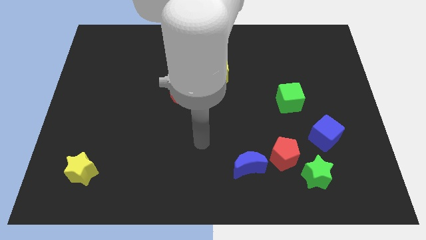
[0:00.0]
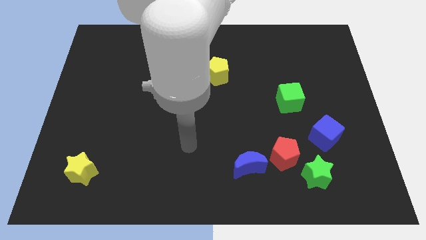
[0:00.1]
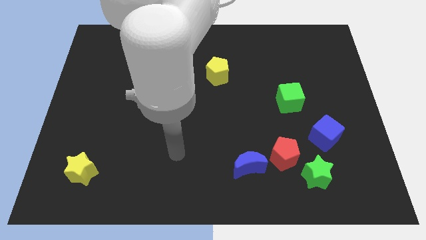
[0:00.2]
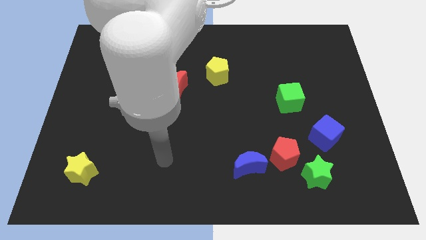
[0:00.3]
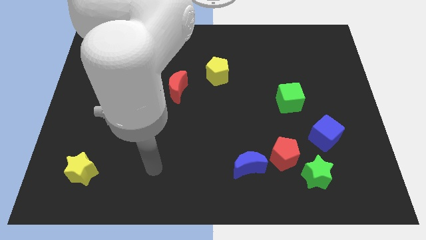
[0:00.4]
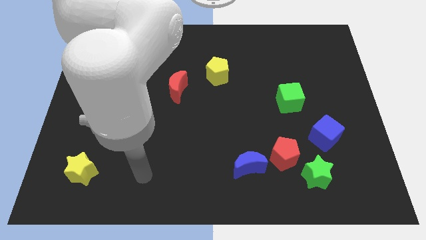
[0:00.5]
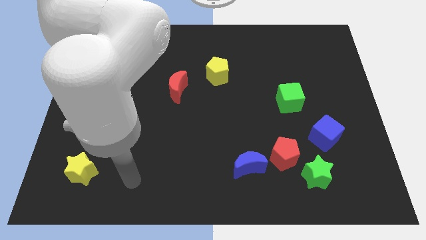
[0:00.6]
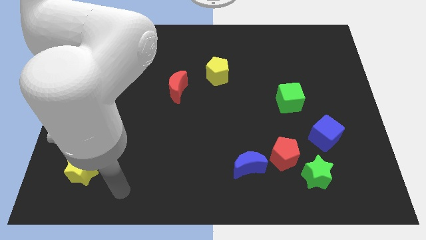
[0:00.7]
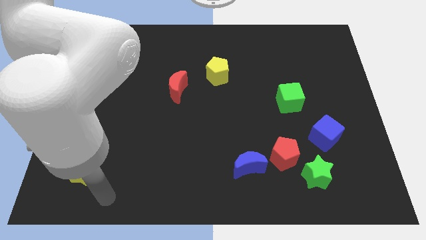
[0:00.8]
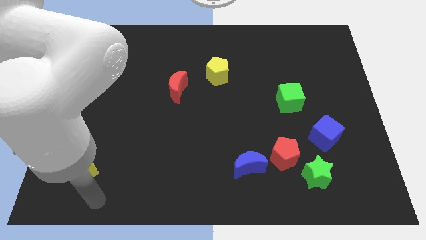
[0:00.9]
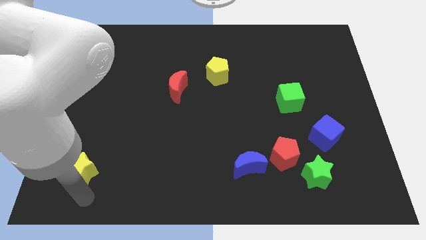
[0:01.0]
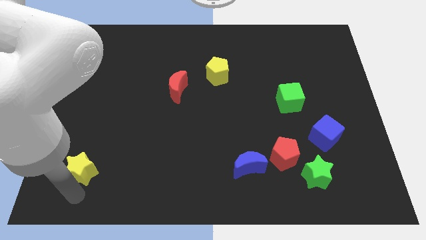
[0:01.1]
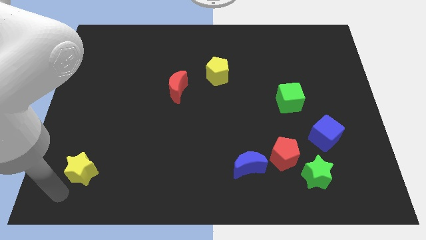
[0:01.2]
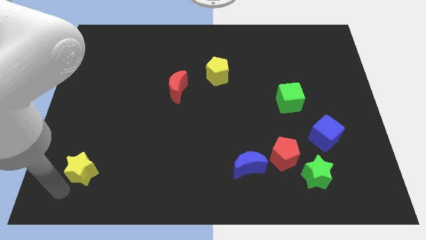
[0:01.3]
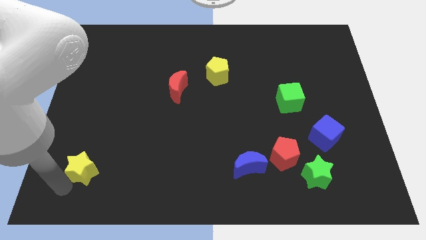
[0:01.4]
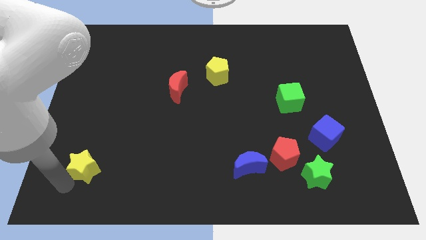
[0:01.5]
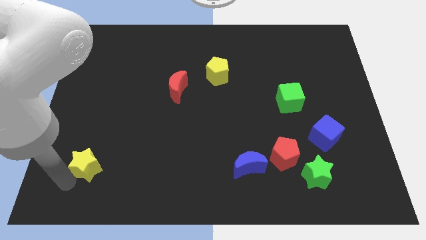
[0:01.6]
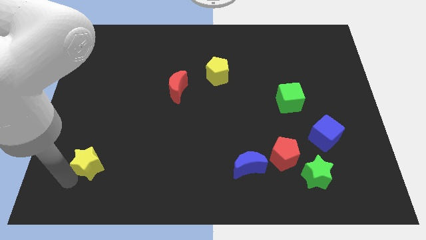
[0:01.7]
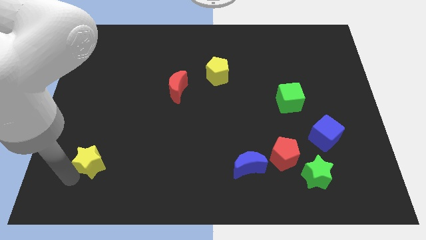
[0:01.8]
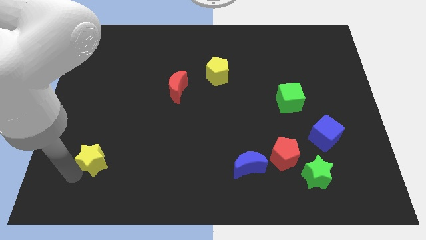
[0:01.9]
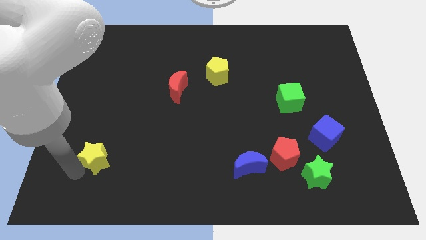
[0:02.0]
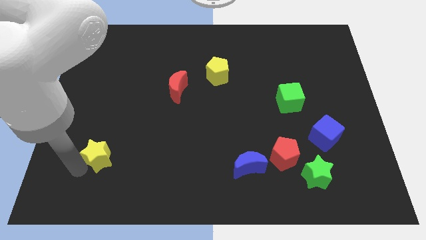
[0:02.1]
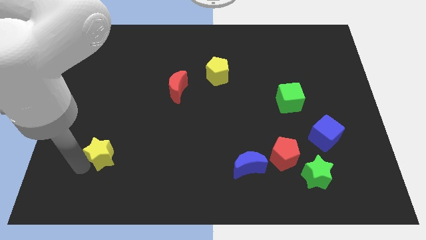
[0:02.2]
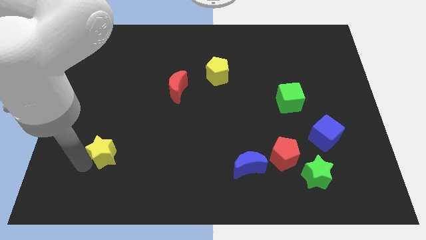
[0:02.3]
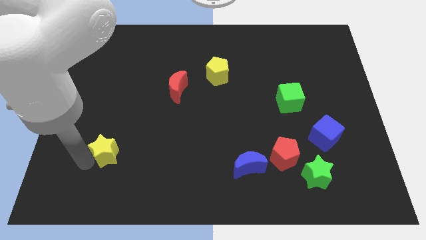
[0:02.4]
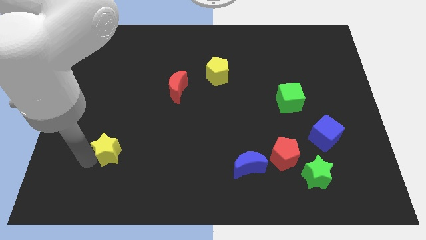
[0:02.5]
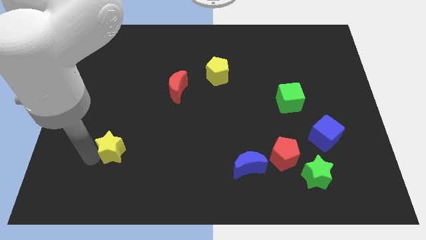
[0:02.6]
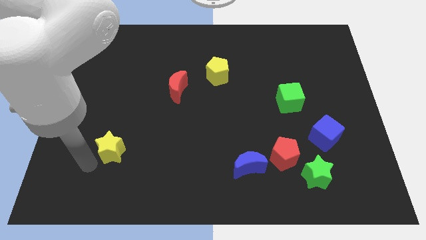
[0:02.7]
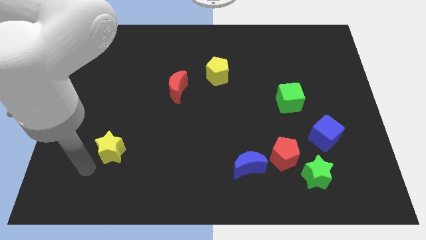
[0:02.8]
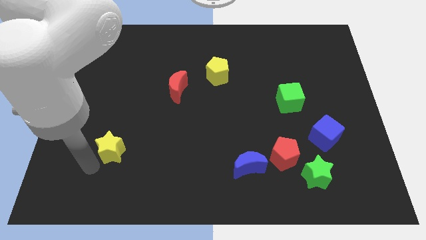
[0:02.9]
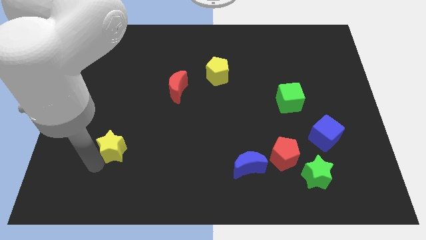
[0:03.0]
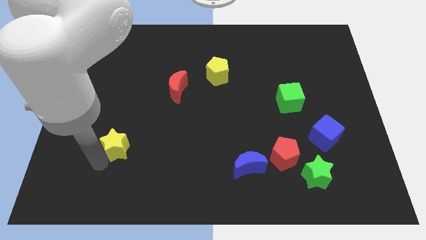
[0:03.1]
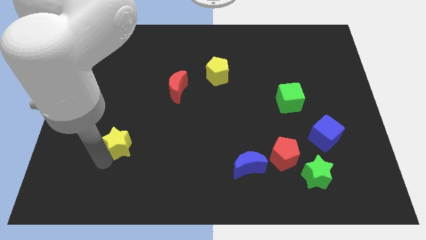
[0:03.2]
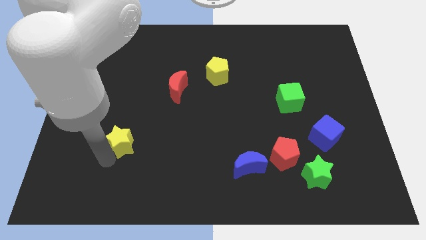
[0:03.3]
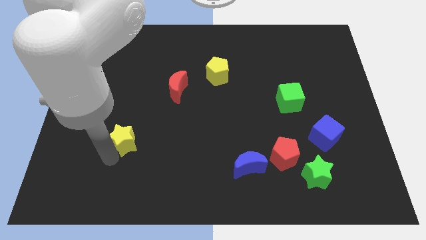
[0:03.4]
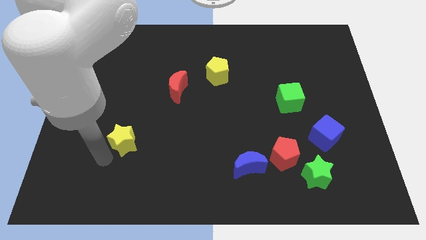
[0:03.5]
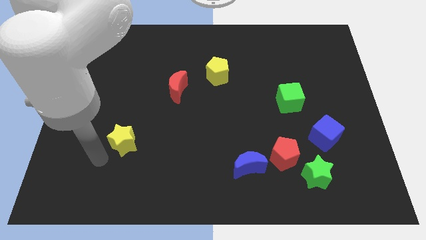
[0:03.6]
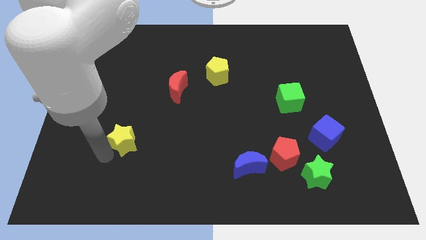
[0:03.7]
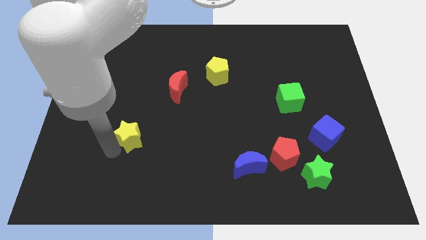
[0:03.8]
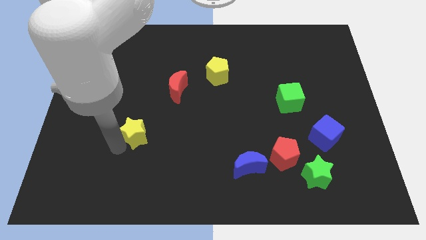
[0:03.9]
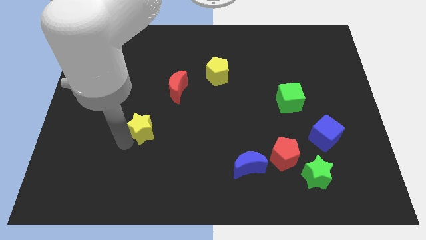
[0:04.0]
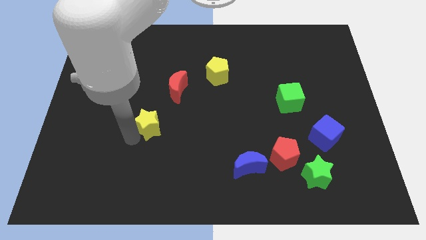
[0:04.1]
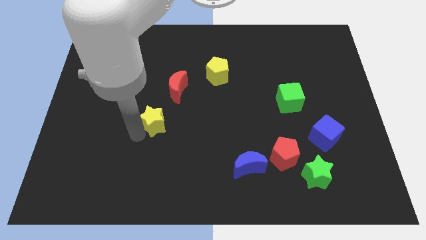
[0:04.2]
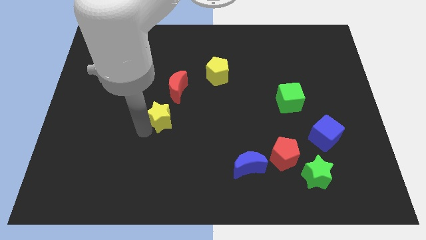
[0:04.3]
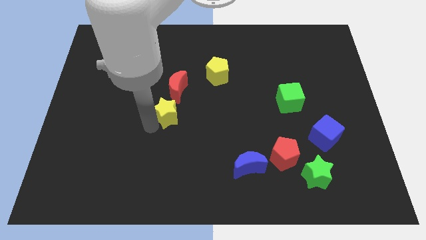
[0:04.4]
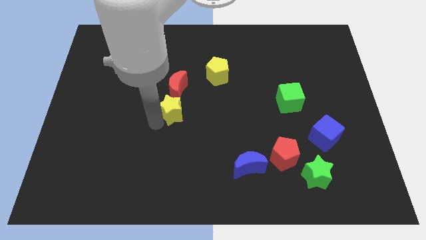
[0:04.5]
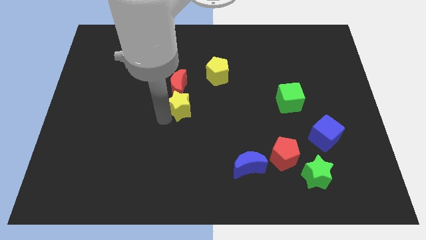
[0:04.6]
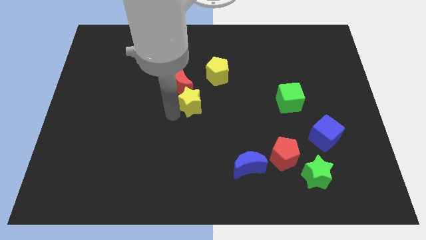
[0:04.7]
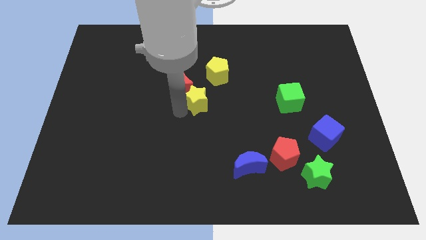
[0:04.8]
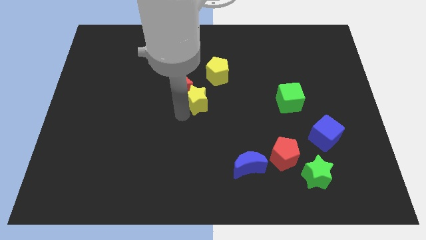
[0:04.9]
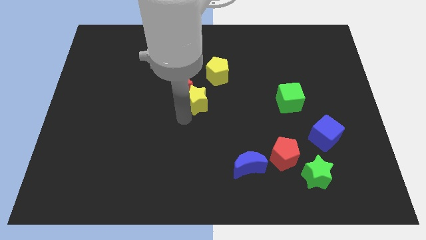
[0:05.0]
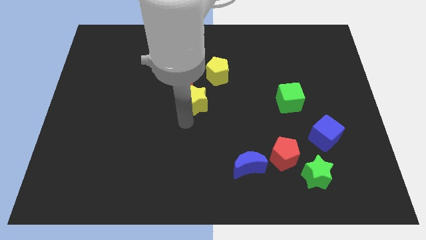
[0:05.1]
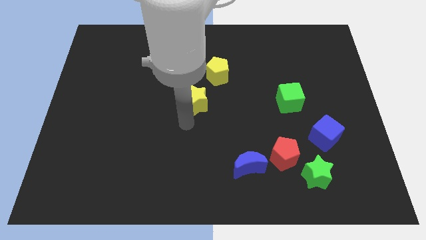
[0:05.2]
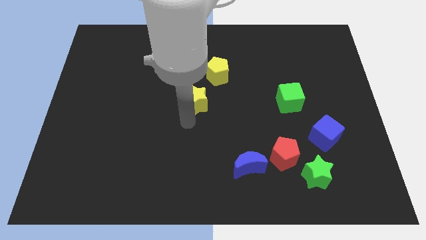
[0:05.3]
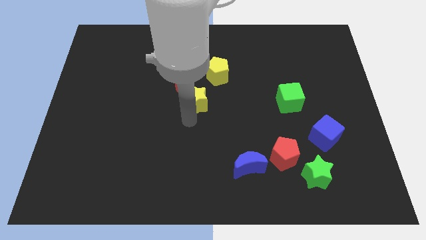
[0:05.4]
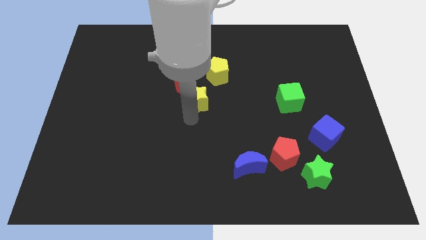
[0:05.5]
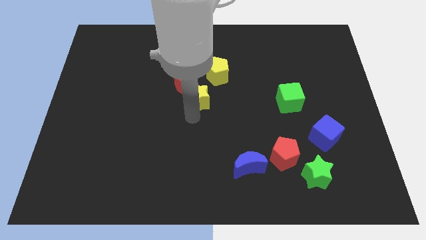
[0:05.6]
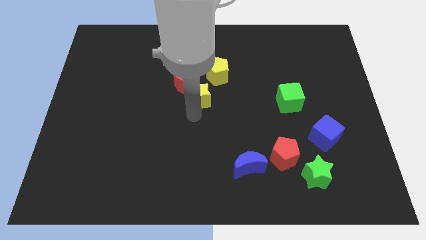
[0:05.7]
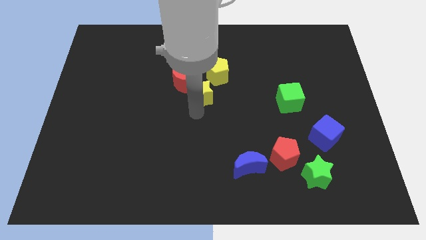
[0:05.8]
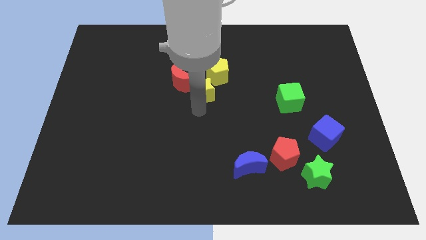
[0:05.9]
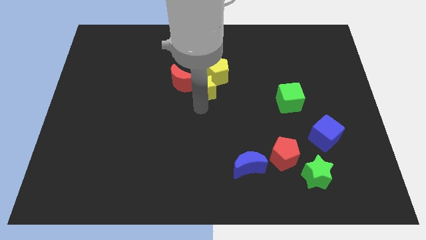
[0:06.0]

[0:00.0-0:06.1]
push the yellow star to the yellow pentagon
